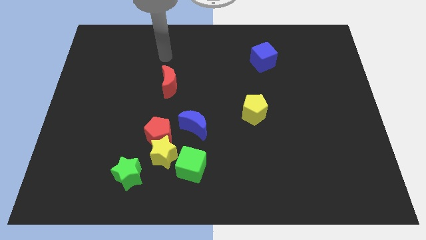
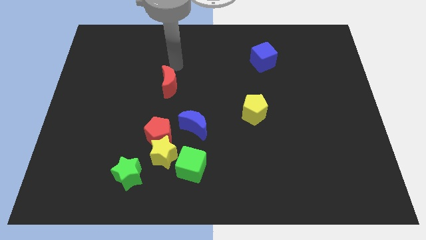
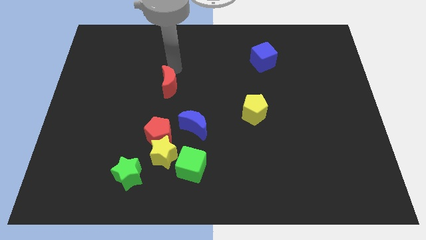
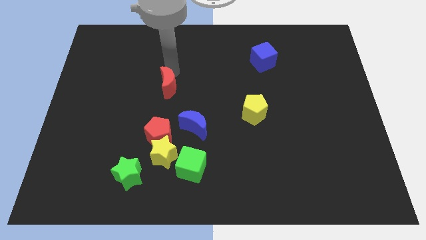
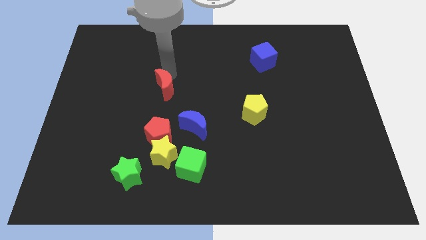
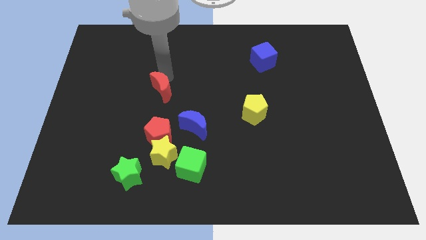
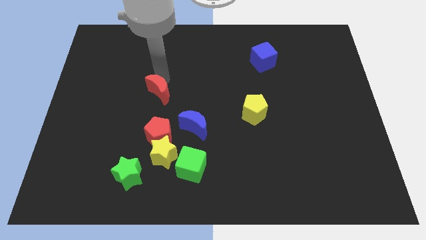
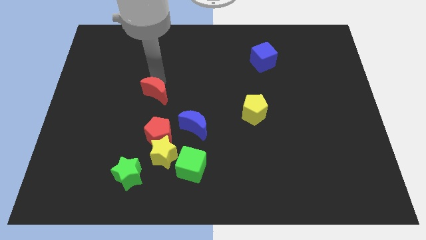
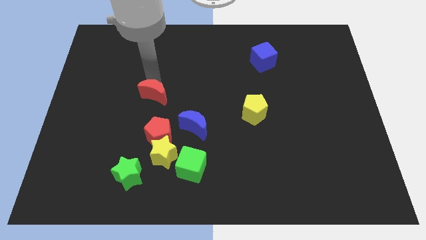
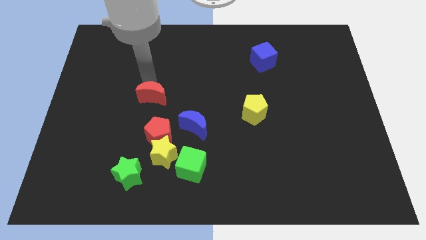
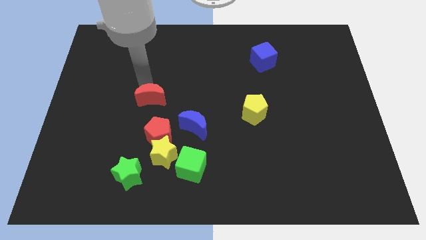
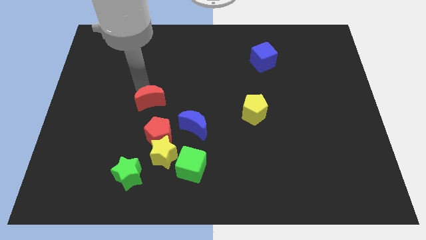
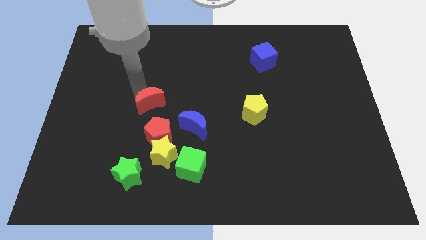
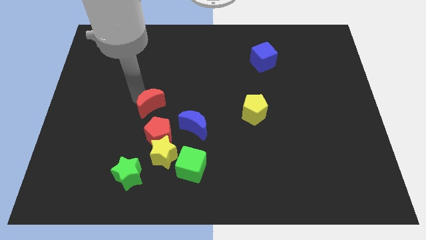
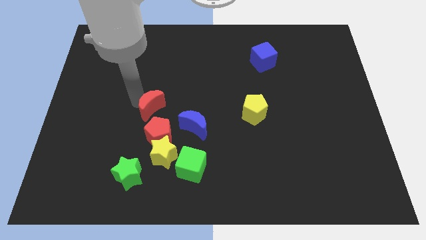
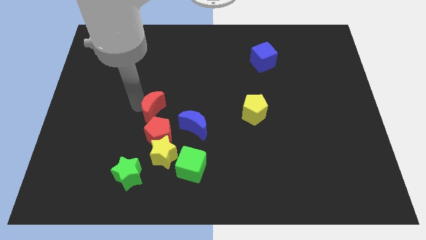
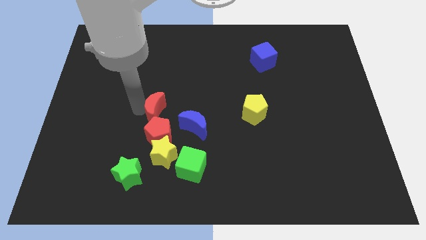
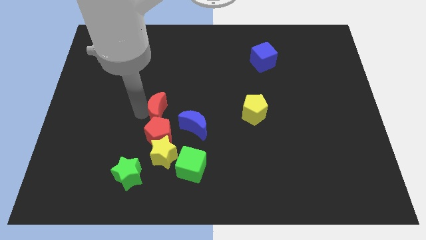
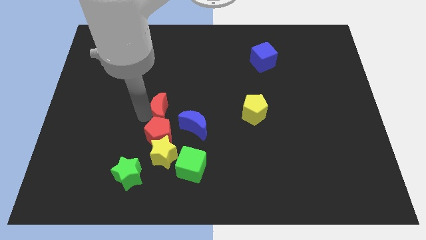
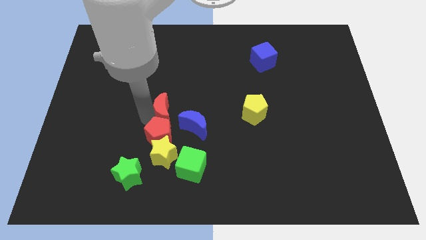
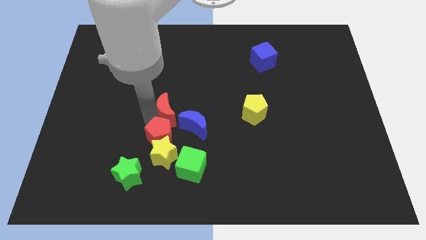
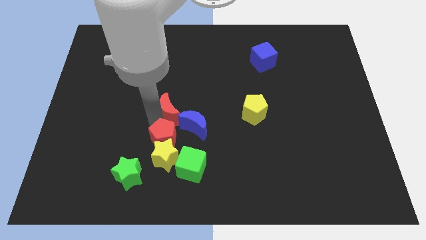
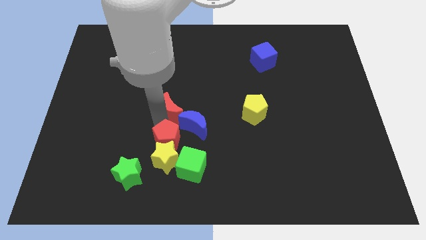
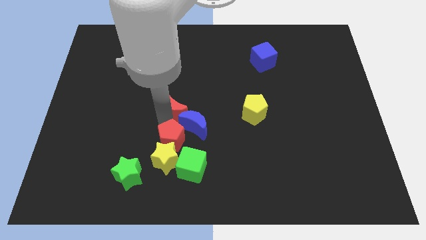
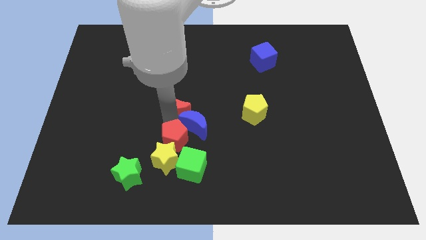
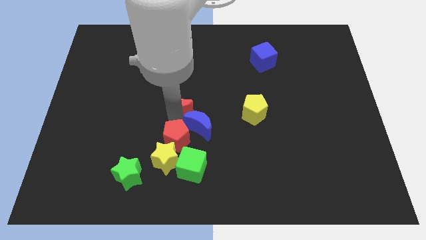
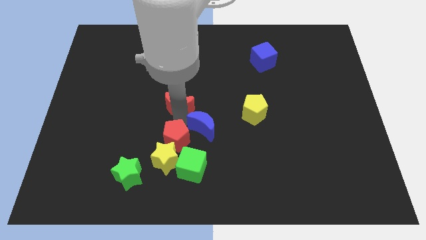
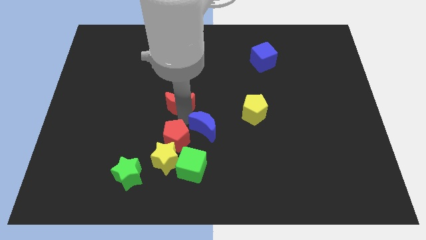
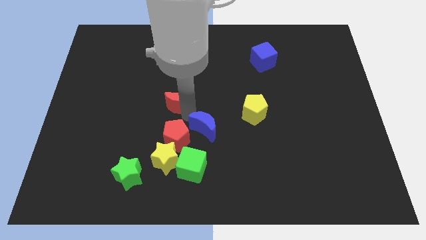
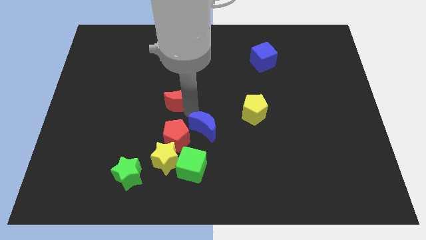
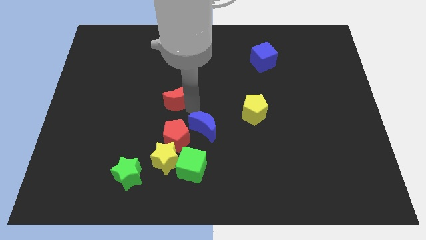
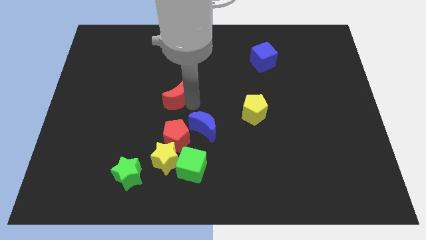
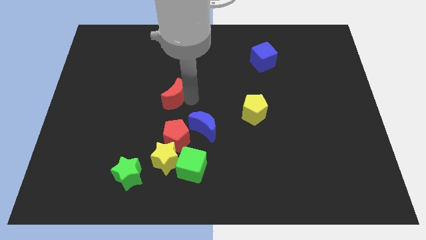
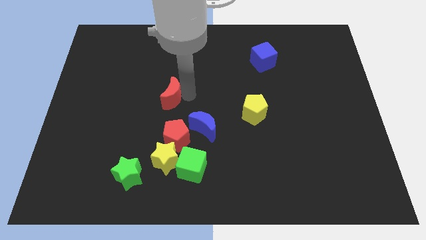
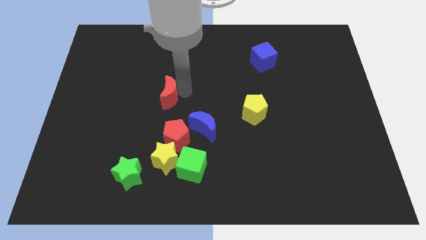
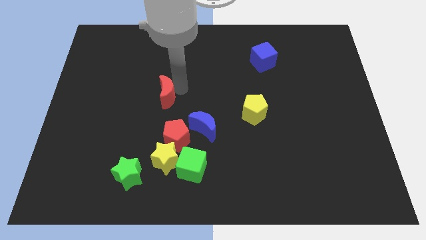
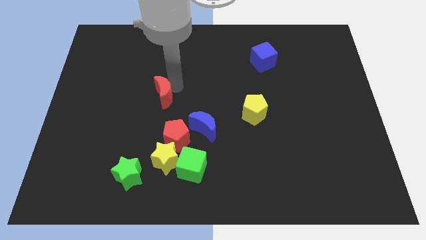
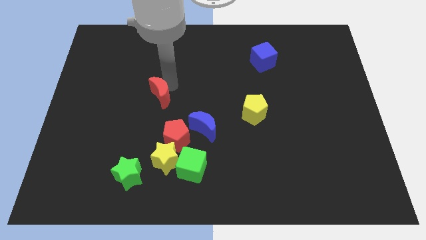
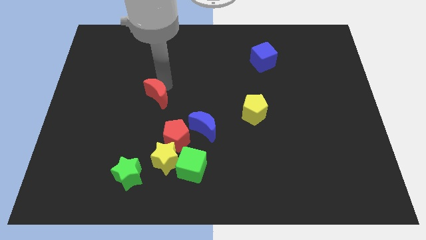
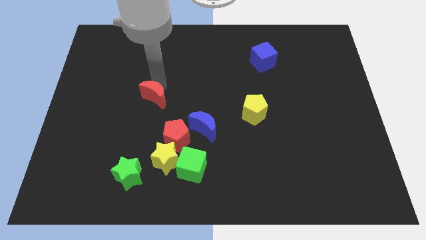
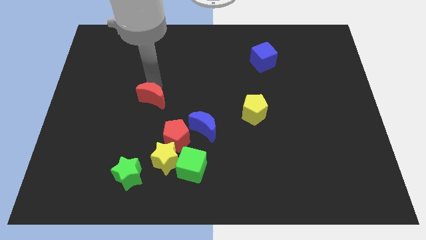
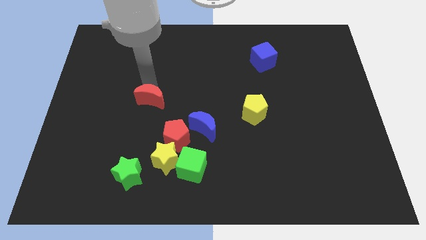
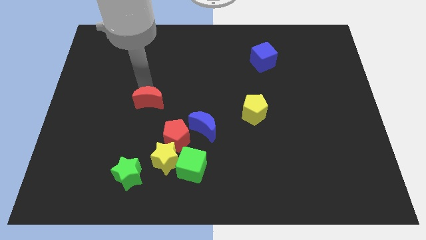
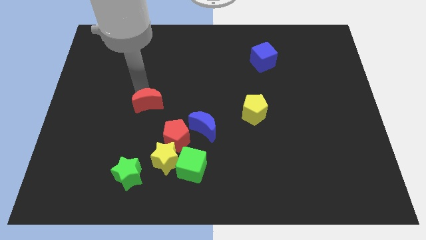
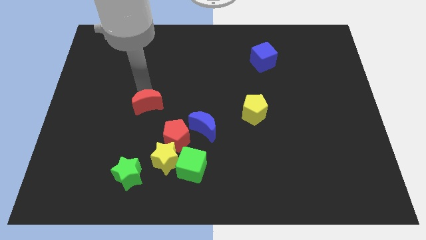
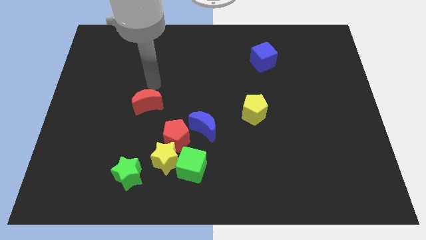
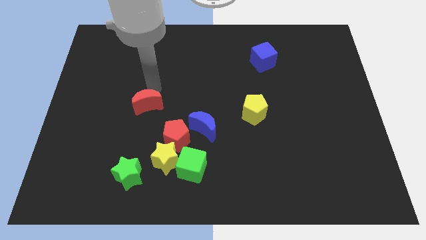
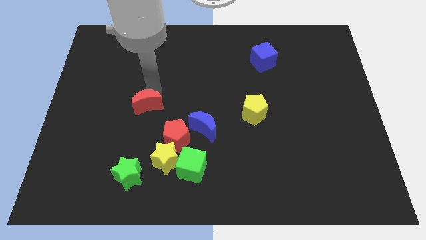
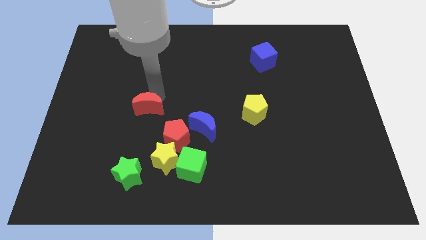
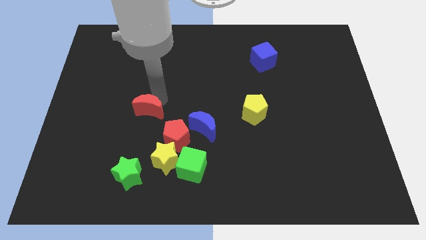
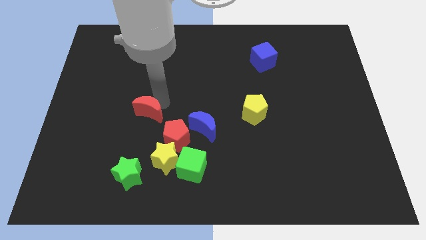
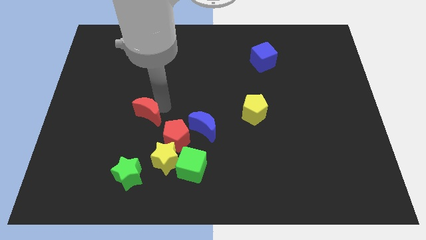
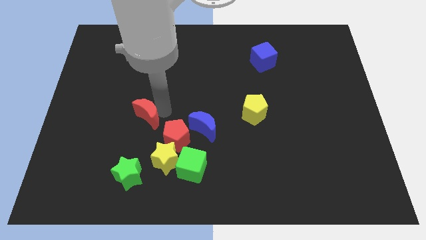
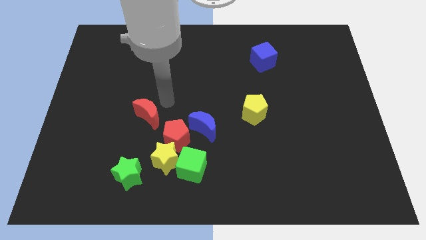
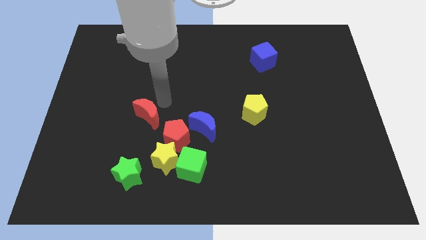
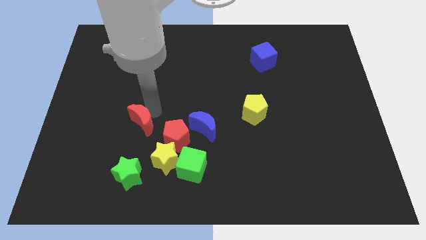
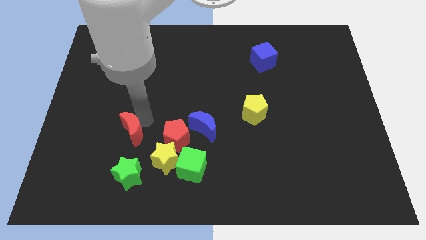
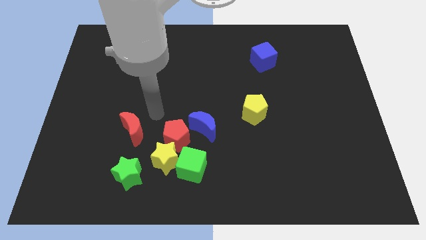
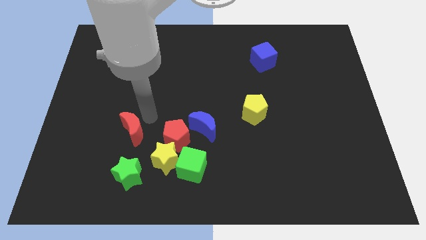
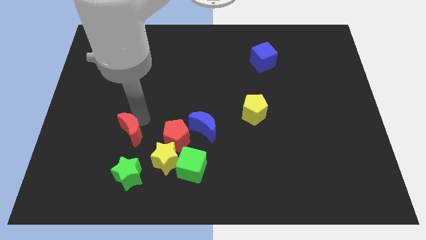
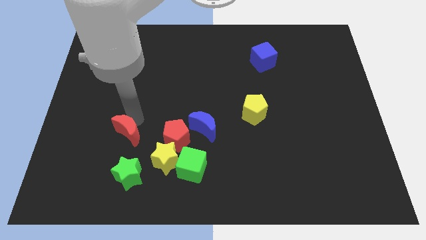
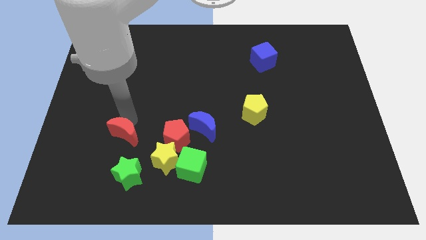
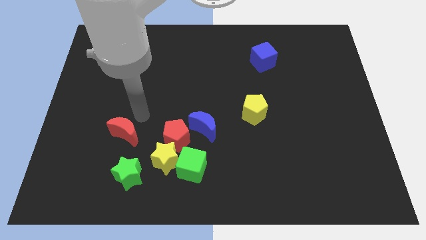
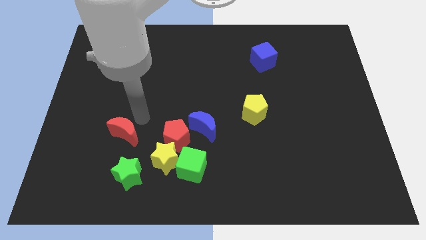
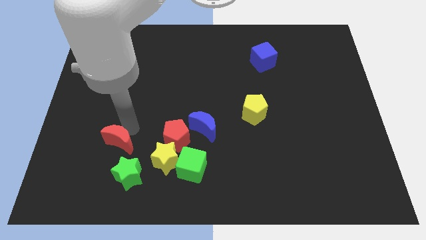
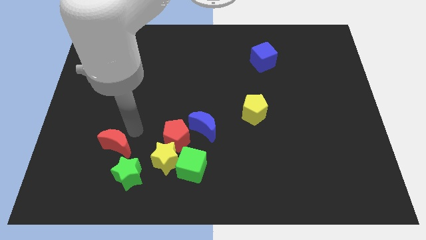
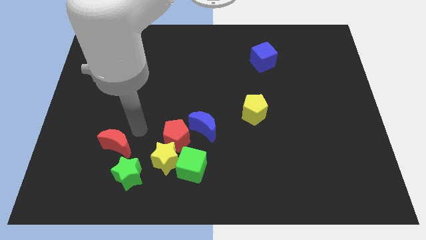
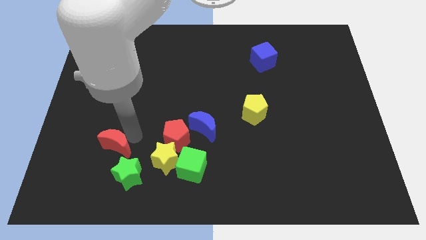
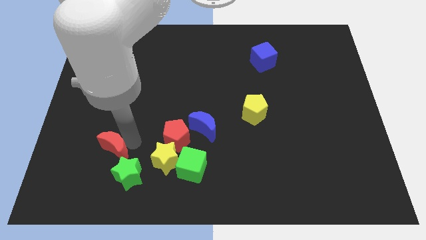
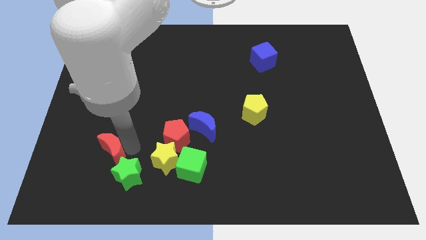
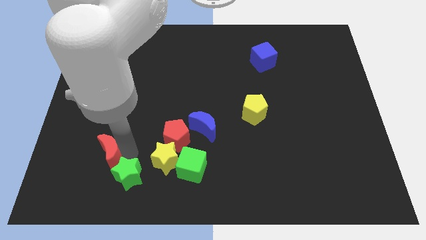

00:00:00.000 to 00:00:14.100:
slide the red moon to the left side of the green star
